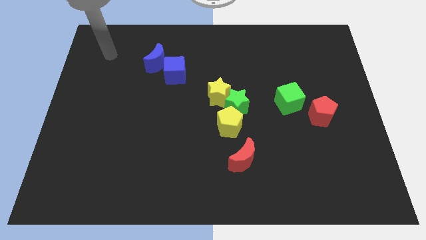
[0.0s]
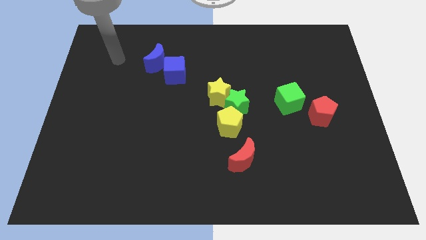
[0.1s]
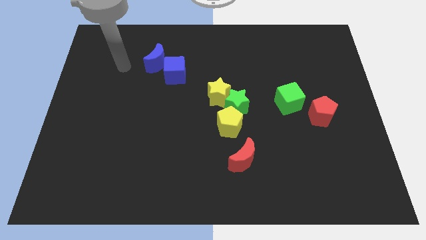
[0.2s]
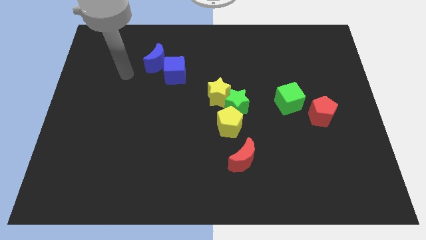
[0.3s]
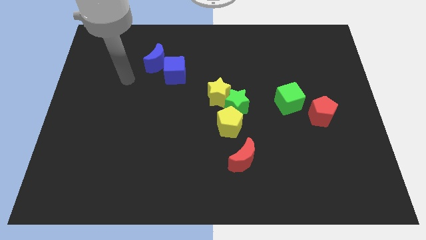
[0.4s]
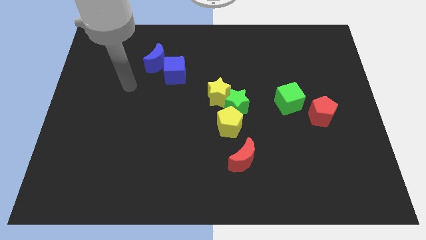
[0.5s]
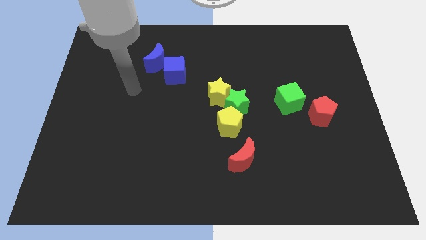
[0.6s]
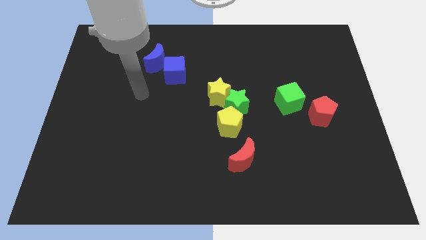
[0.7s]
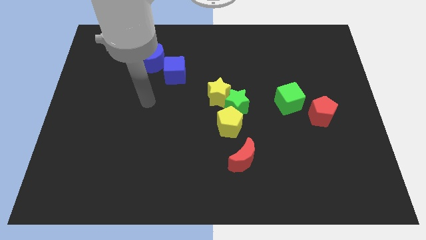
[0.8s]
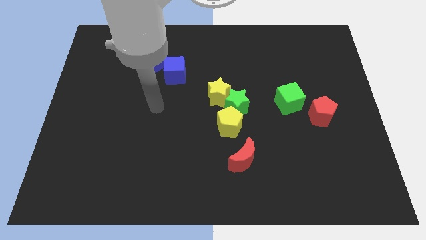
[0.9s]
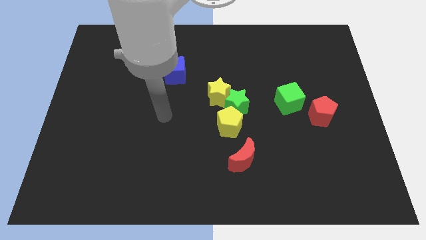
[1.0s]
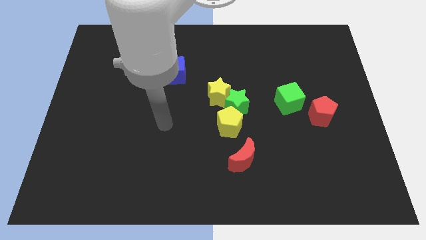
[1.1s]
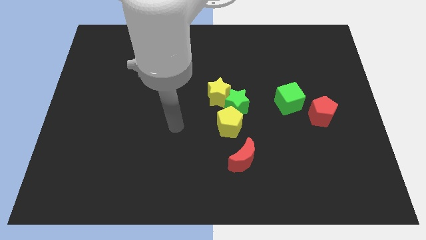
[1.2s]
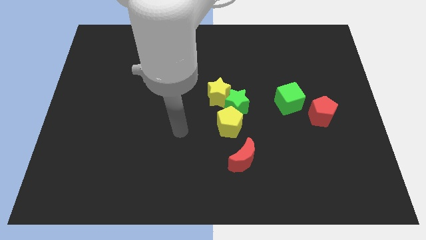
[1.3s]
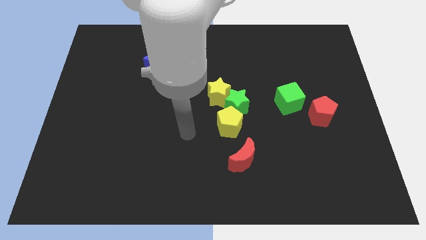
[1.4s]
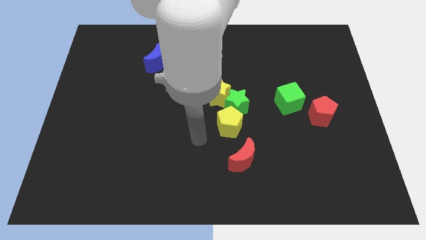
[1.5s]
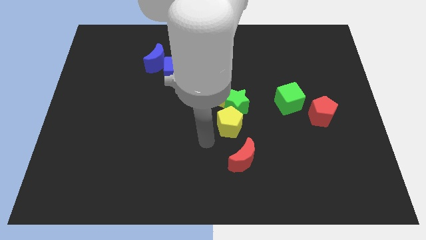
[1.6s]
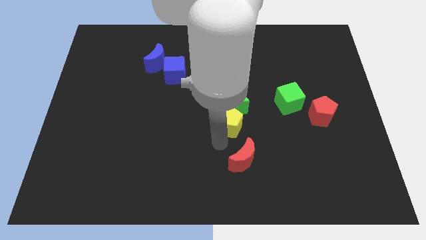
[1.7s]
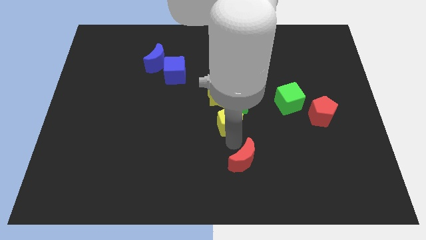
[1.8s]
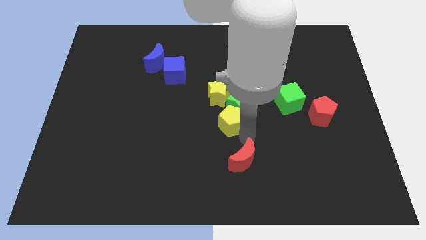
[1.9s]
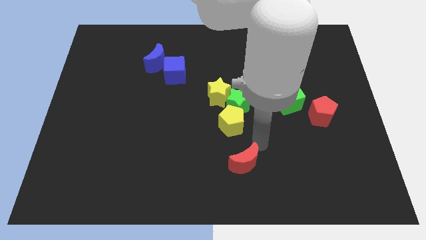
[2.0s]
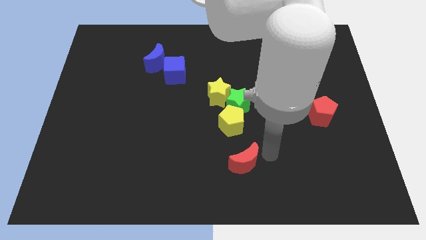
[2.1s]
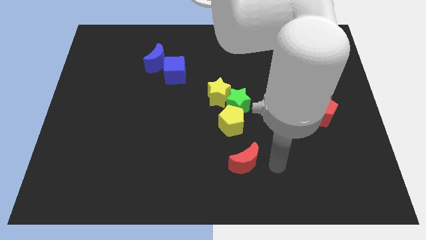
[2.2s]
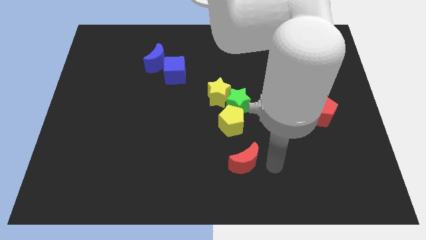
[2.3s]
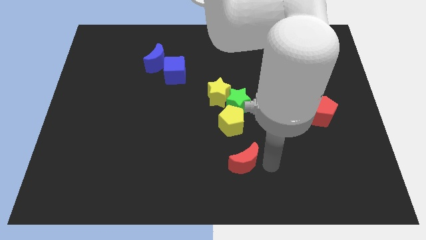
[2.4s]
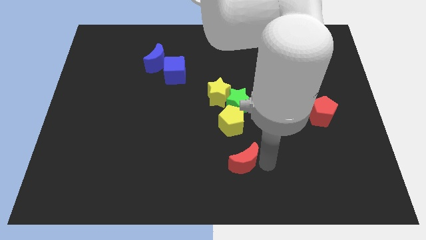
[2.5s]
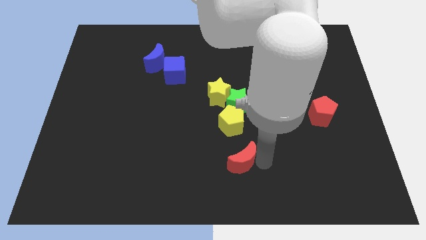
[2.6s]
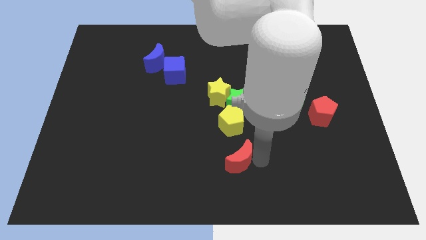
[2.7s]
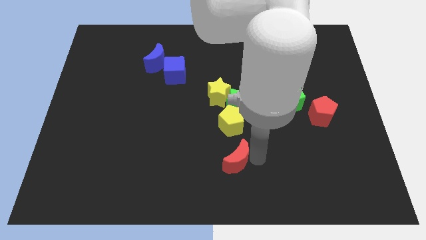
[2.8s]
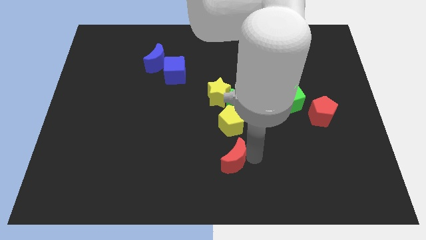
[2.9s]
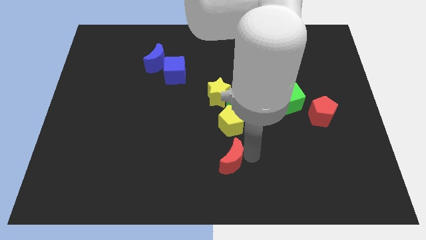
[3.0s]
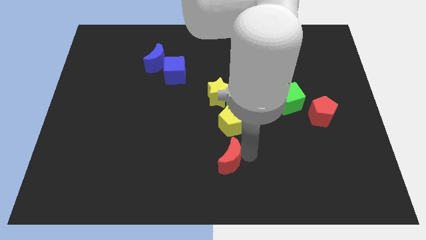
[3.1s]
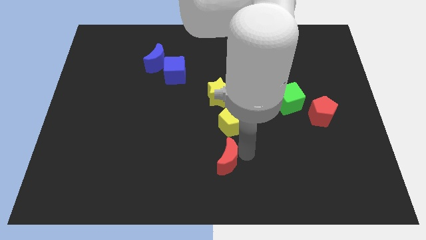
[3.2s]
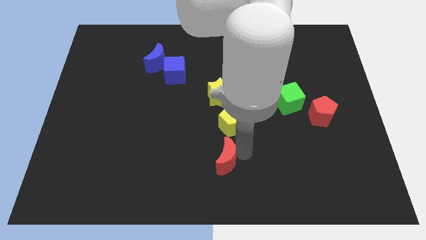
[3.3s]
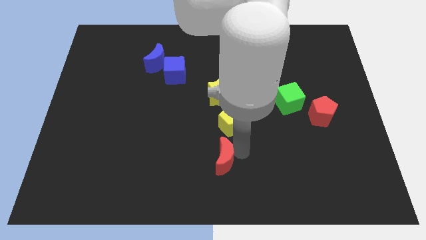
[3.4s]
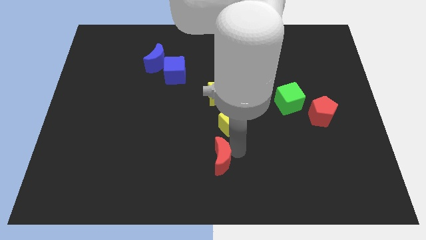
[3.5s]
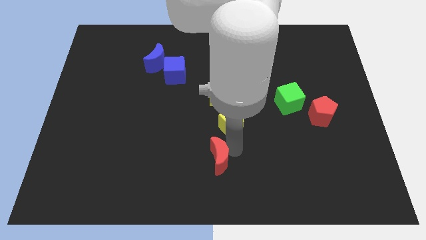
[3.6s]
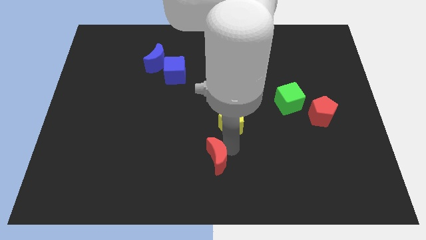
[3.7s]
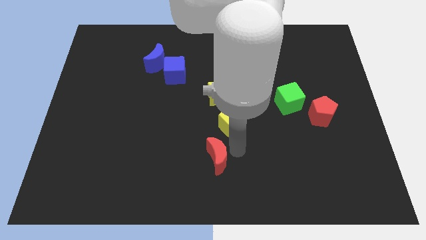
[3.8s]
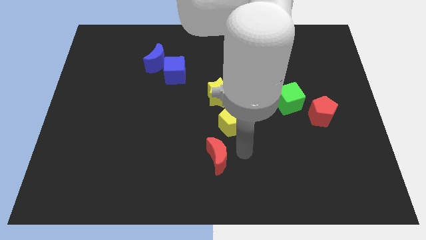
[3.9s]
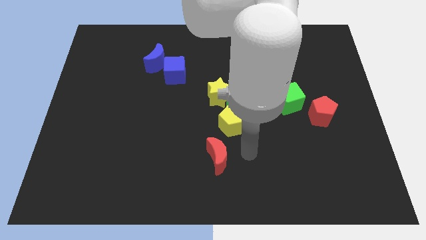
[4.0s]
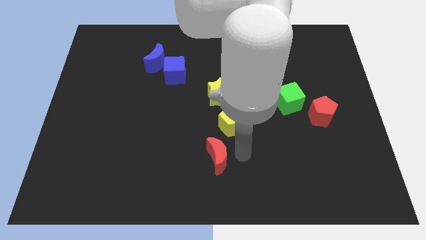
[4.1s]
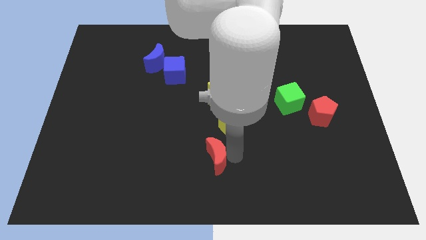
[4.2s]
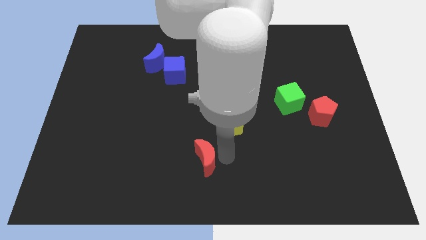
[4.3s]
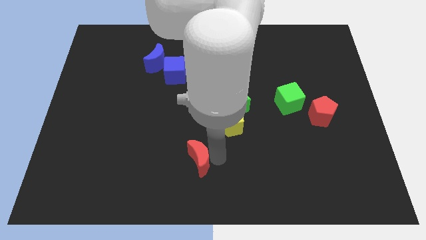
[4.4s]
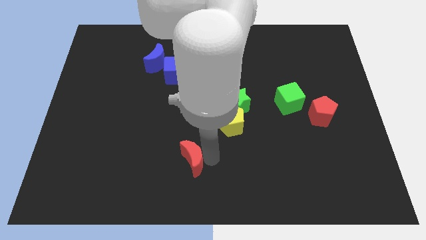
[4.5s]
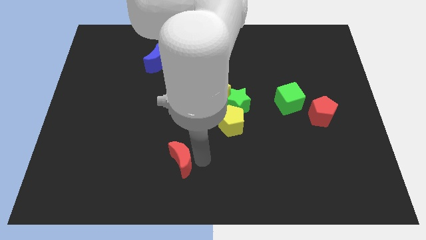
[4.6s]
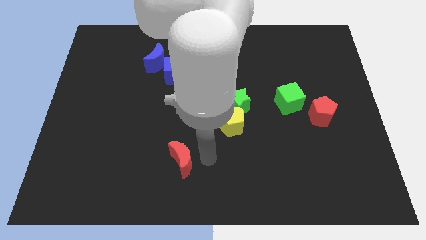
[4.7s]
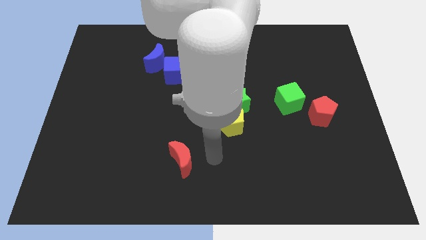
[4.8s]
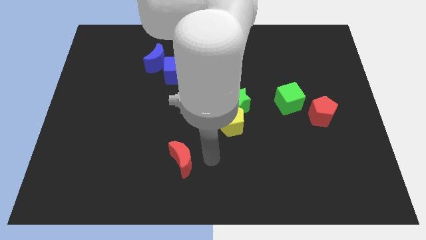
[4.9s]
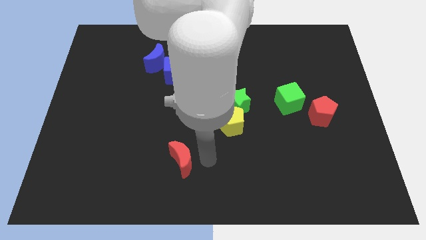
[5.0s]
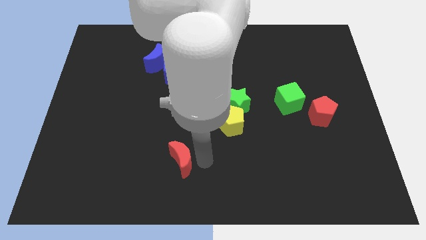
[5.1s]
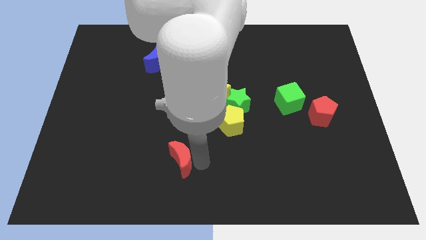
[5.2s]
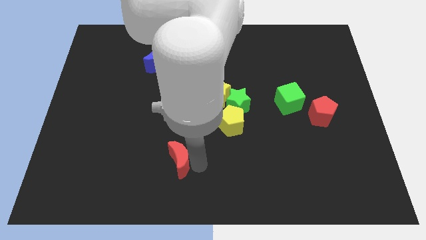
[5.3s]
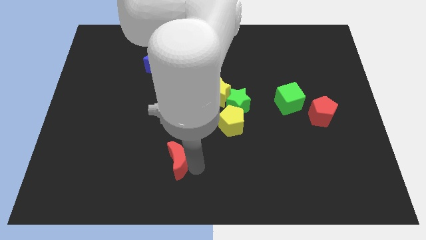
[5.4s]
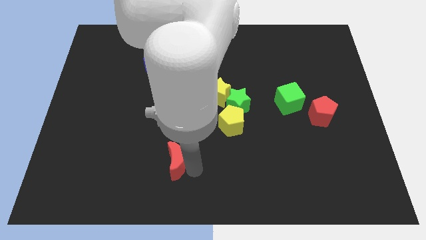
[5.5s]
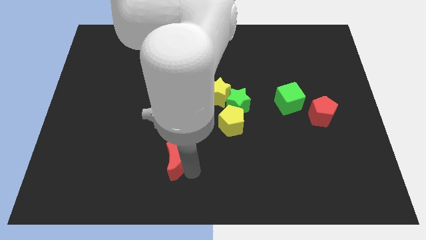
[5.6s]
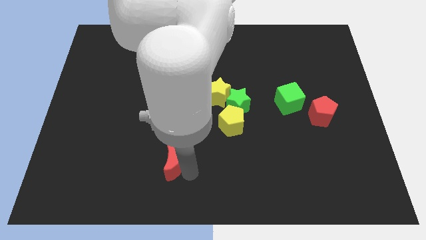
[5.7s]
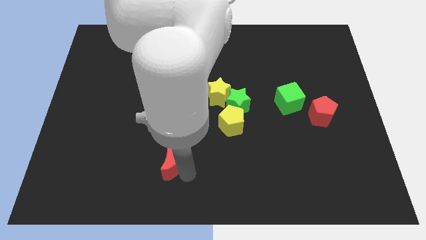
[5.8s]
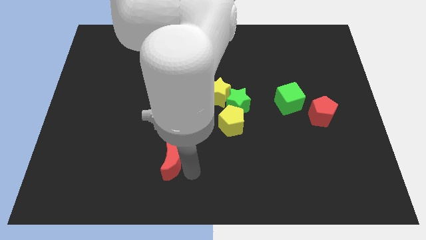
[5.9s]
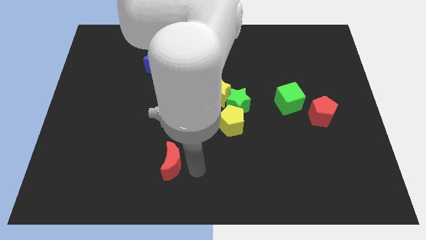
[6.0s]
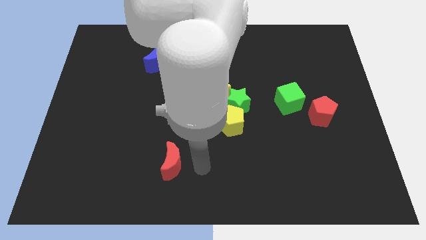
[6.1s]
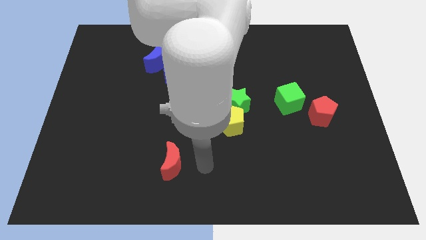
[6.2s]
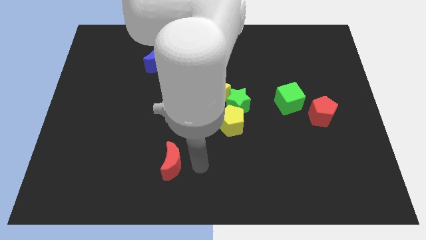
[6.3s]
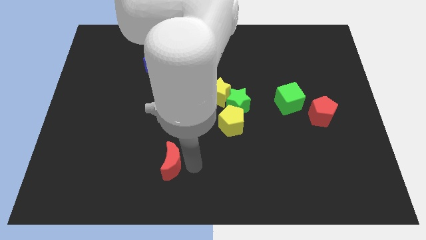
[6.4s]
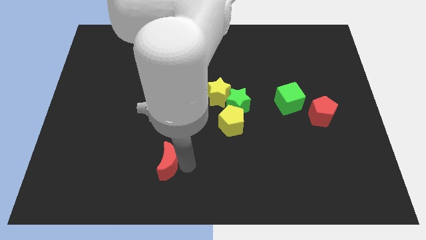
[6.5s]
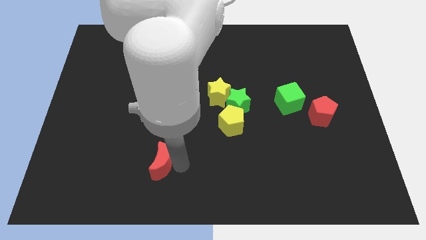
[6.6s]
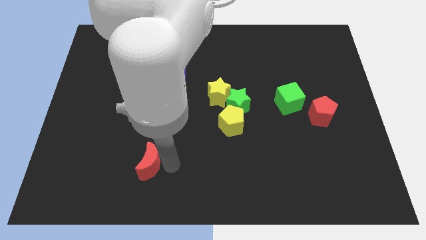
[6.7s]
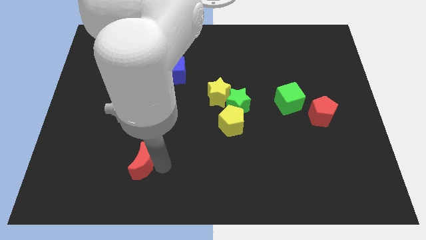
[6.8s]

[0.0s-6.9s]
move the red moon to the left

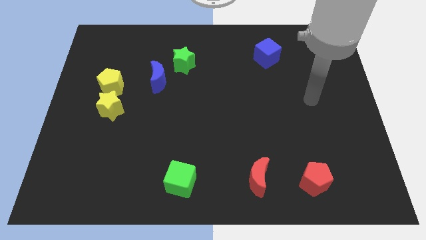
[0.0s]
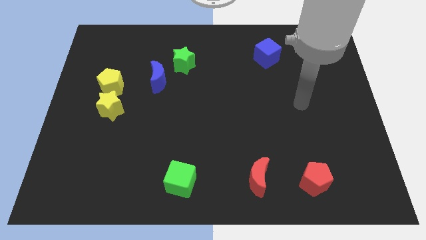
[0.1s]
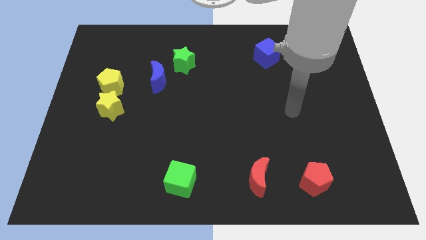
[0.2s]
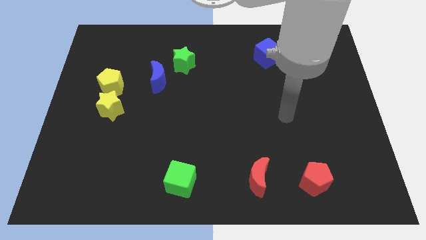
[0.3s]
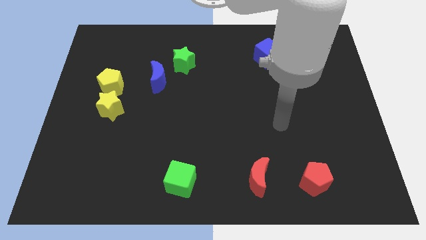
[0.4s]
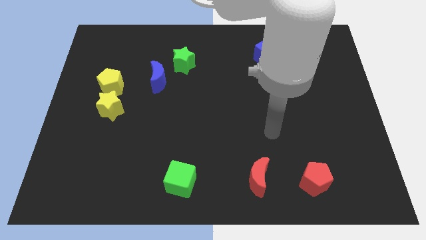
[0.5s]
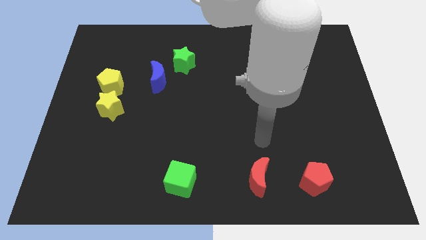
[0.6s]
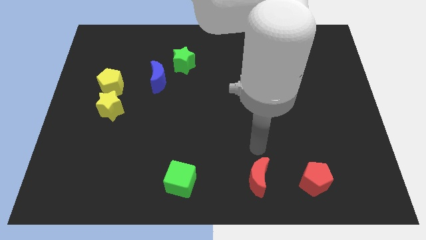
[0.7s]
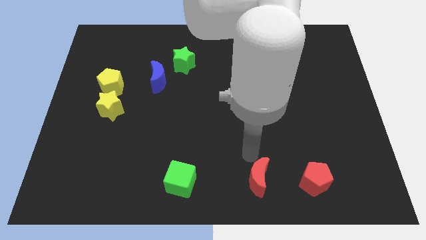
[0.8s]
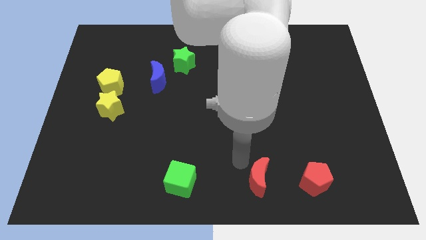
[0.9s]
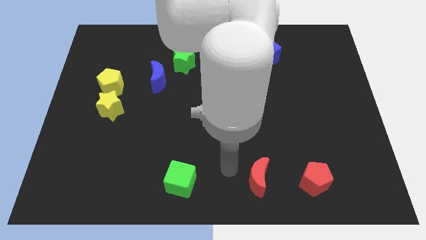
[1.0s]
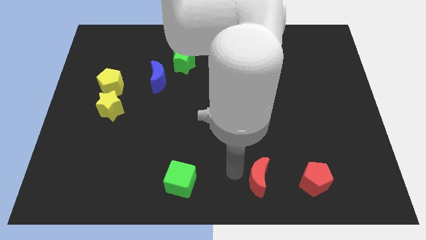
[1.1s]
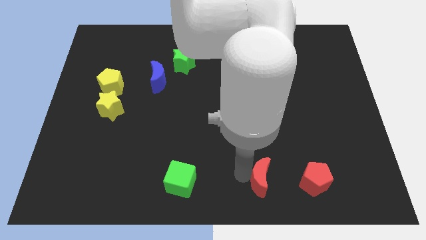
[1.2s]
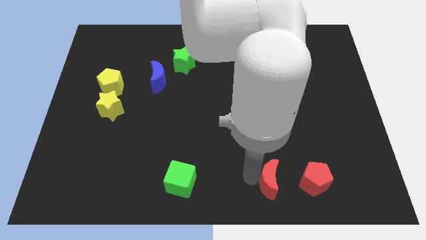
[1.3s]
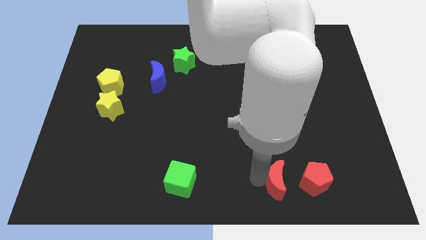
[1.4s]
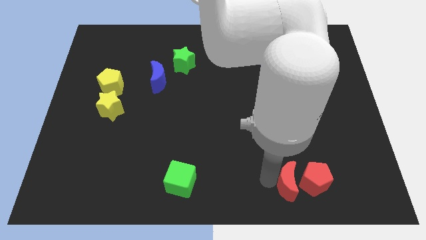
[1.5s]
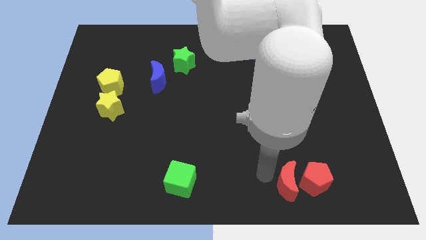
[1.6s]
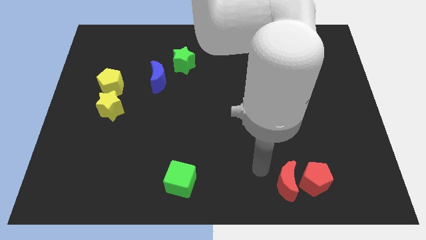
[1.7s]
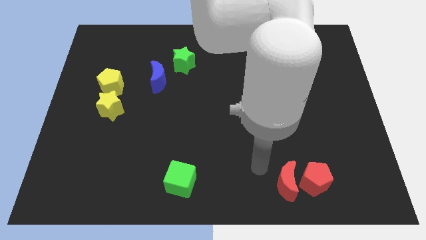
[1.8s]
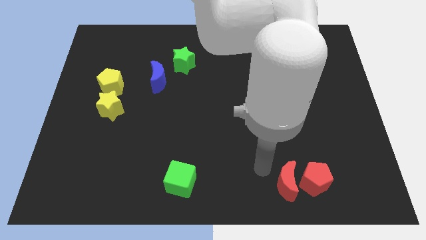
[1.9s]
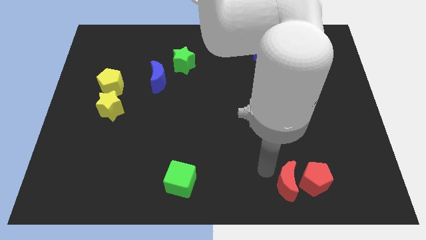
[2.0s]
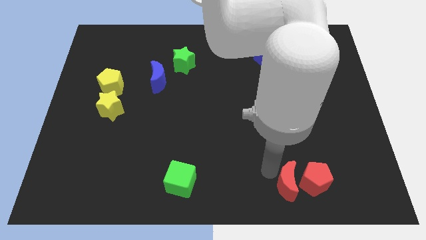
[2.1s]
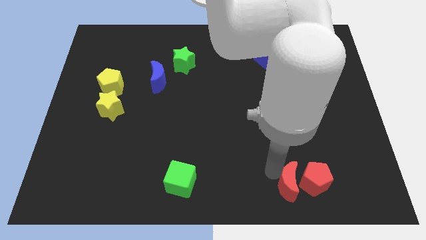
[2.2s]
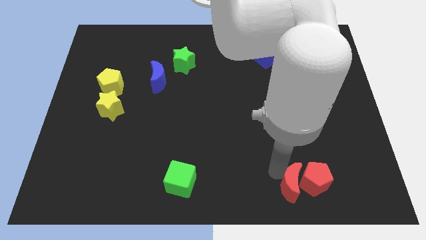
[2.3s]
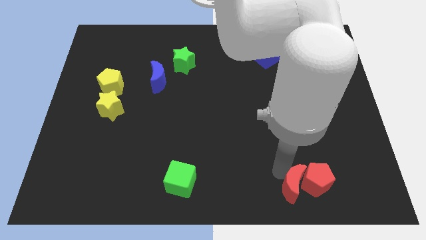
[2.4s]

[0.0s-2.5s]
push the red moon to the right slightly
